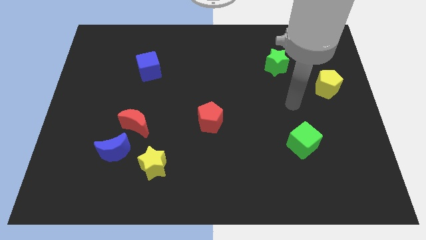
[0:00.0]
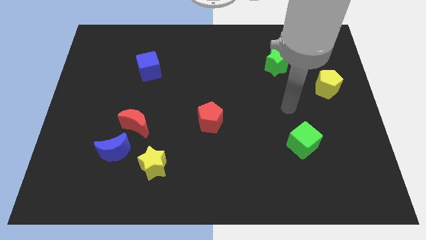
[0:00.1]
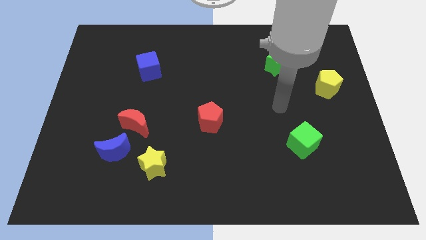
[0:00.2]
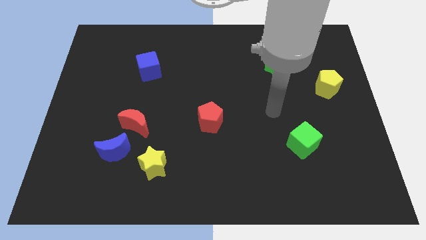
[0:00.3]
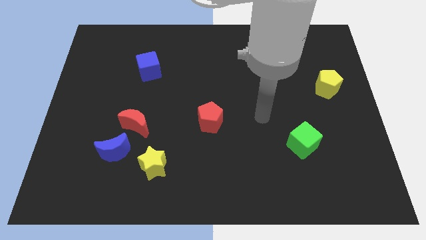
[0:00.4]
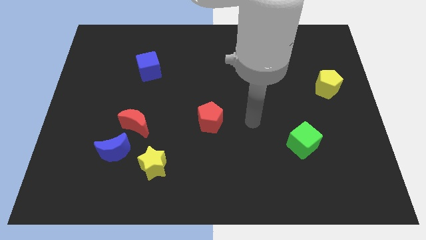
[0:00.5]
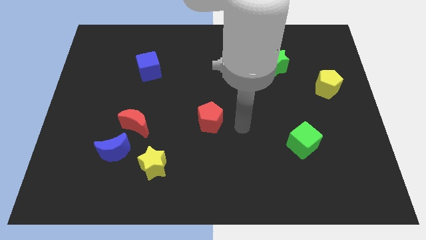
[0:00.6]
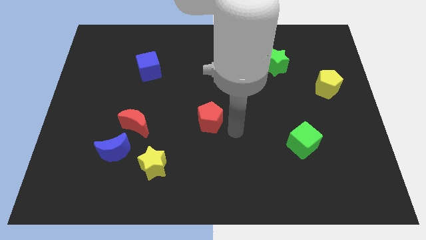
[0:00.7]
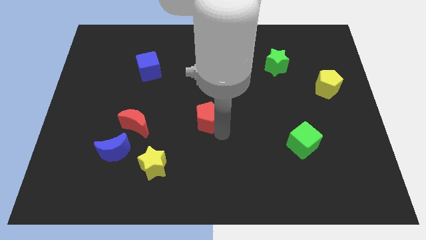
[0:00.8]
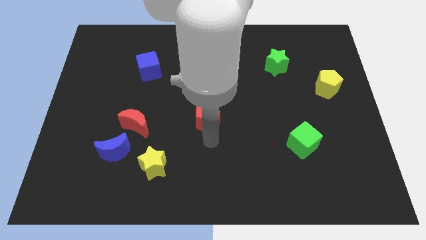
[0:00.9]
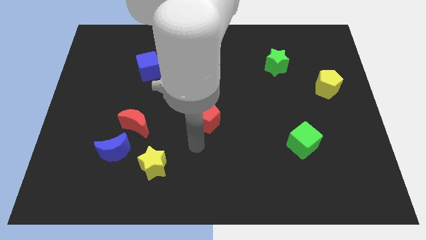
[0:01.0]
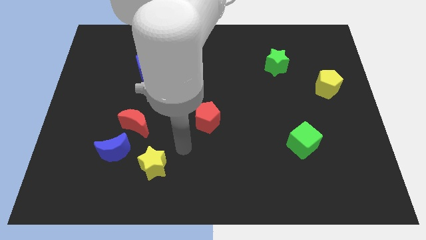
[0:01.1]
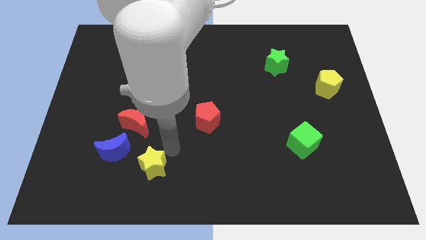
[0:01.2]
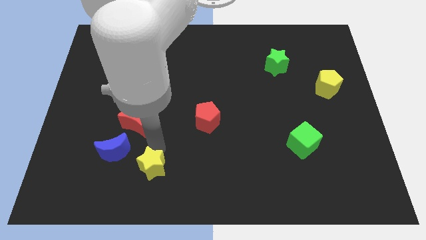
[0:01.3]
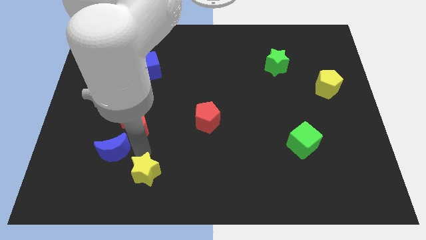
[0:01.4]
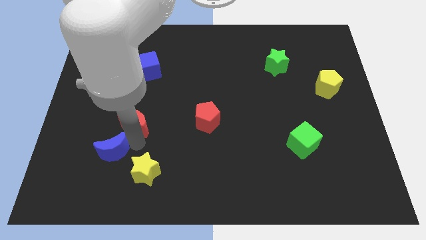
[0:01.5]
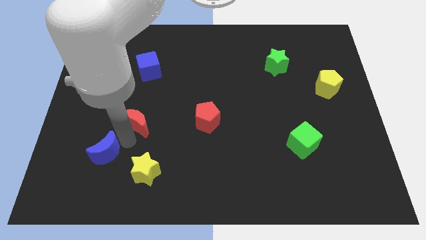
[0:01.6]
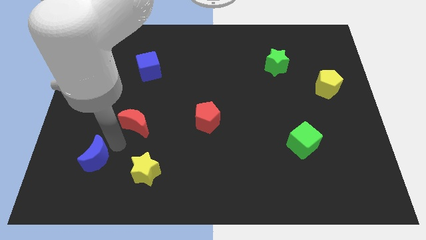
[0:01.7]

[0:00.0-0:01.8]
pull the red moon apart from the blue moon

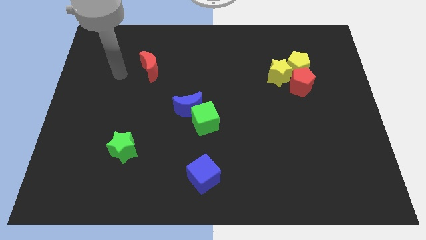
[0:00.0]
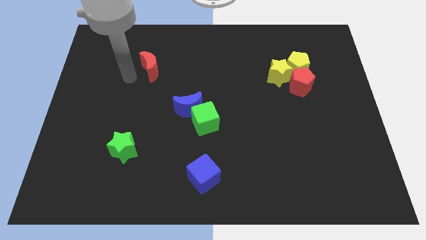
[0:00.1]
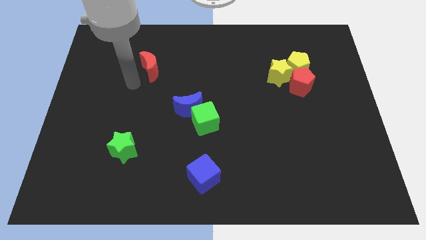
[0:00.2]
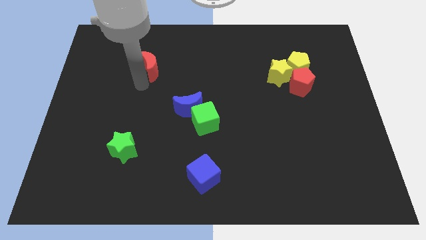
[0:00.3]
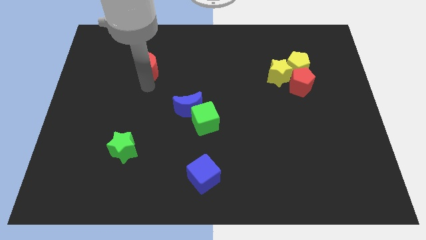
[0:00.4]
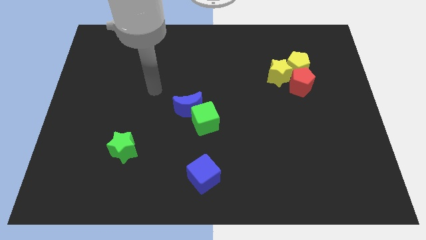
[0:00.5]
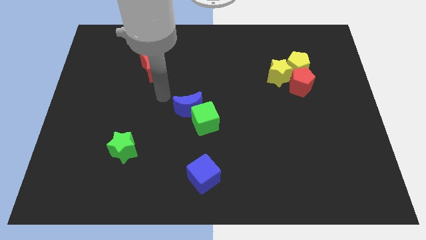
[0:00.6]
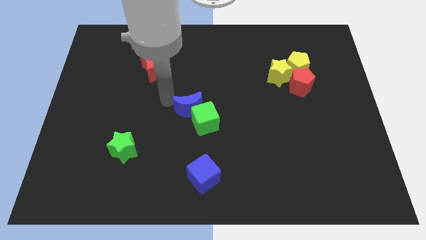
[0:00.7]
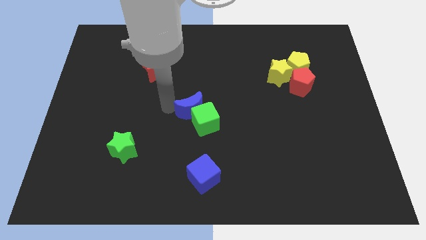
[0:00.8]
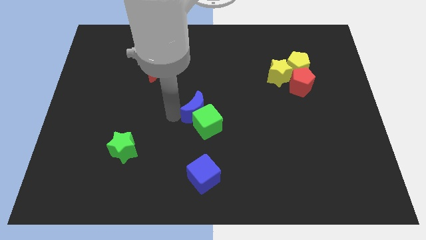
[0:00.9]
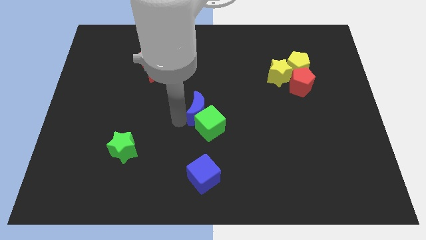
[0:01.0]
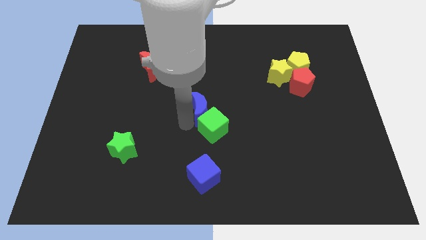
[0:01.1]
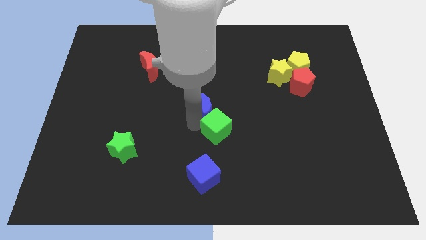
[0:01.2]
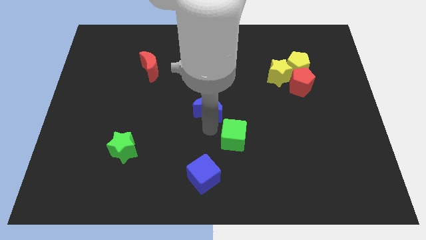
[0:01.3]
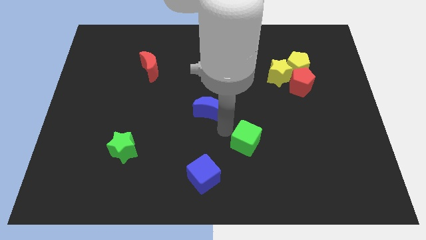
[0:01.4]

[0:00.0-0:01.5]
pull the blue moon apart from the green cube

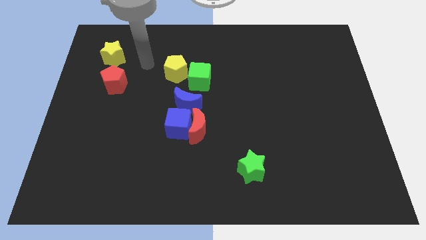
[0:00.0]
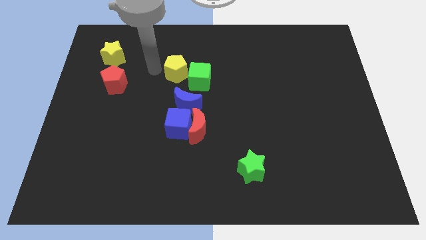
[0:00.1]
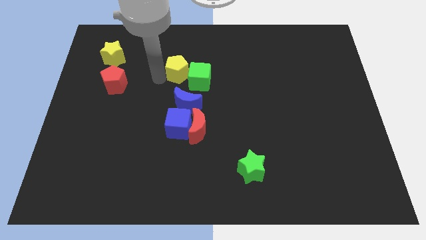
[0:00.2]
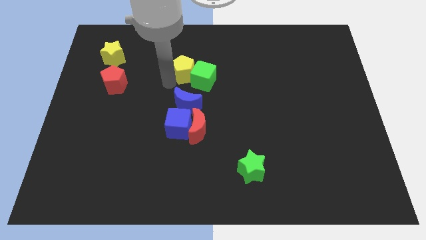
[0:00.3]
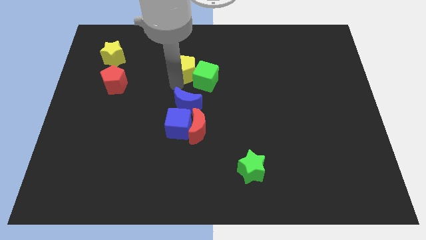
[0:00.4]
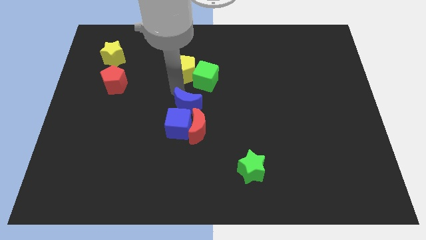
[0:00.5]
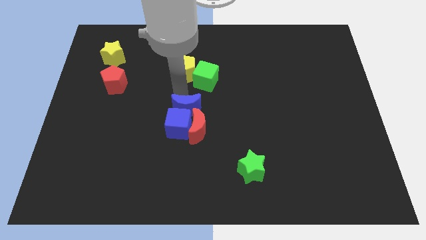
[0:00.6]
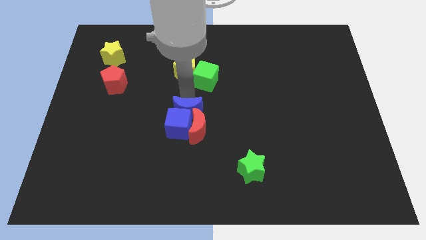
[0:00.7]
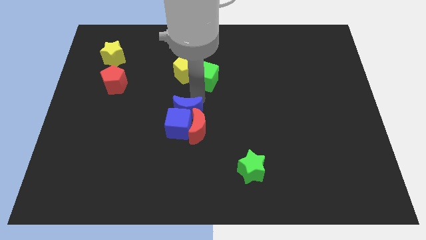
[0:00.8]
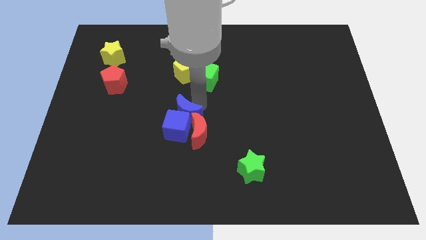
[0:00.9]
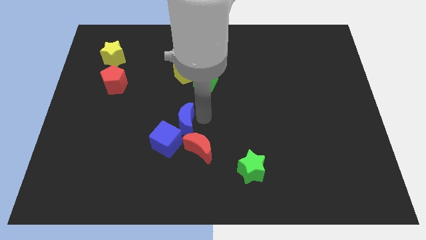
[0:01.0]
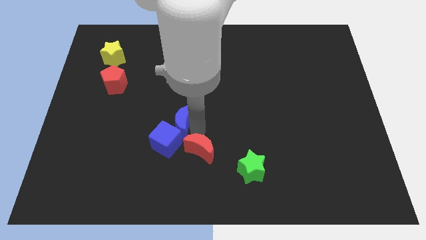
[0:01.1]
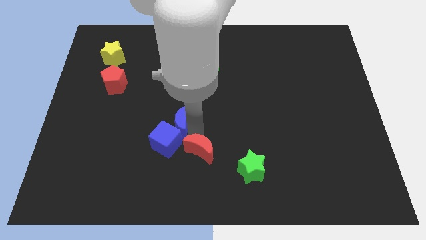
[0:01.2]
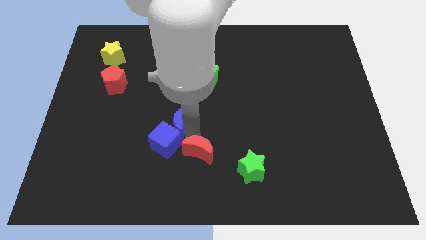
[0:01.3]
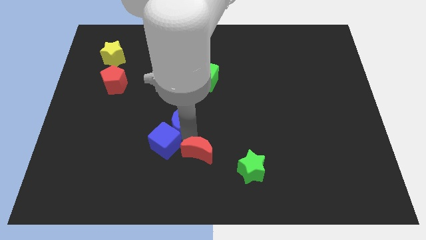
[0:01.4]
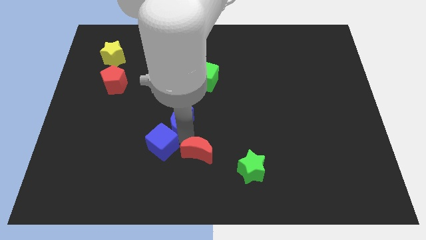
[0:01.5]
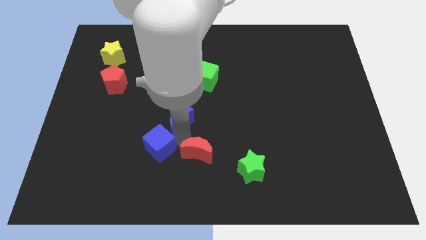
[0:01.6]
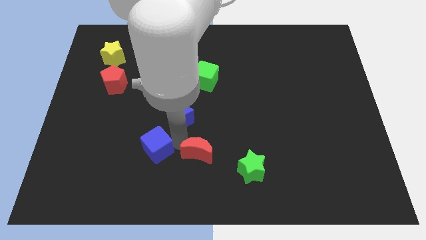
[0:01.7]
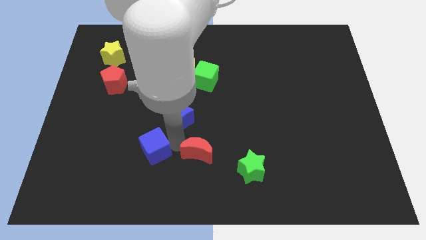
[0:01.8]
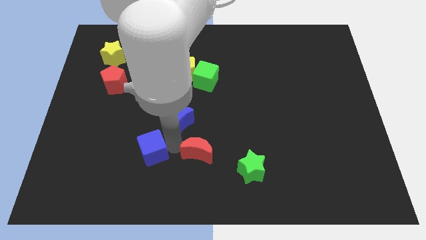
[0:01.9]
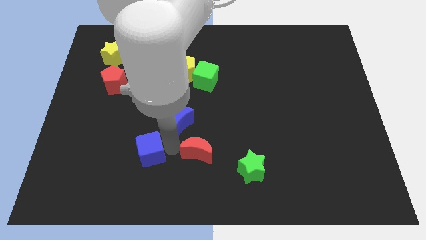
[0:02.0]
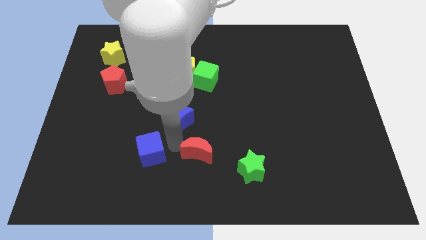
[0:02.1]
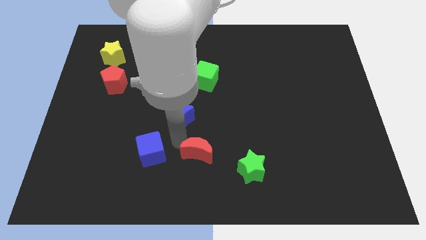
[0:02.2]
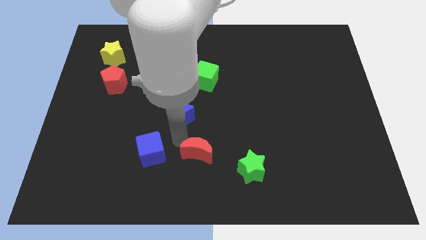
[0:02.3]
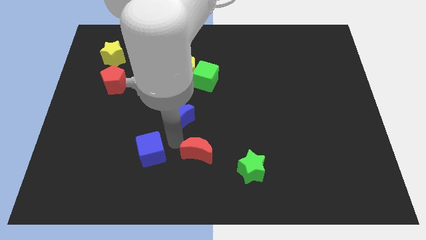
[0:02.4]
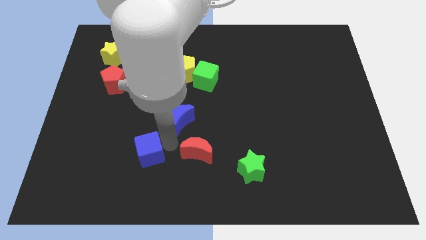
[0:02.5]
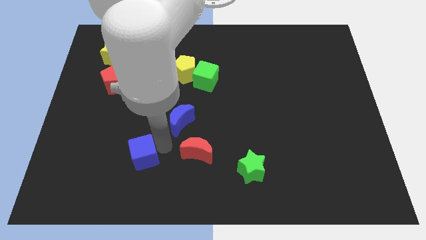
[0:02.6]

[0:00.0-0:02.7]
pull the blue cube apart from the red moon and blue moon

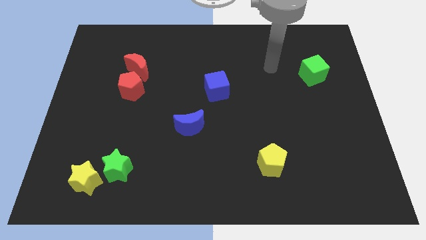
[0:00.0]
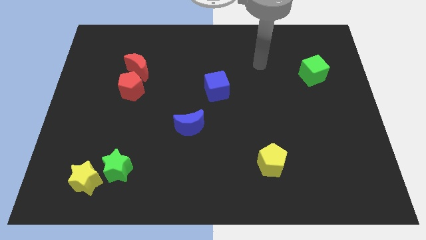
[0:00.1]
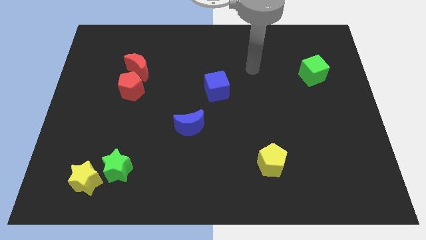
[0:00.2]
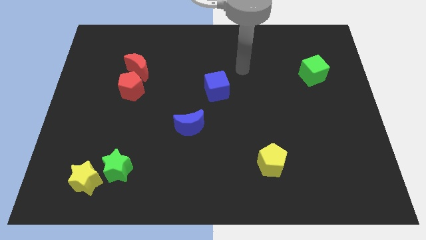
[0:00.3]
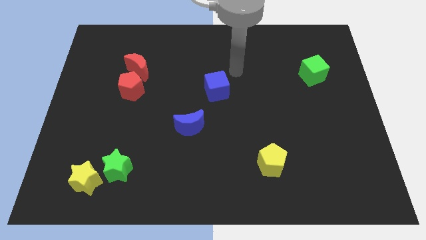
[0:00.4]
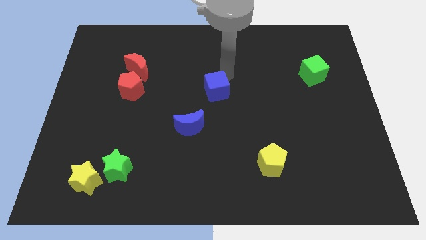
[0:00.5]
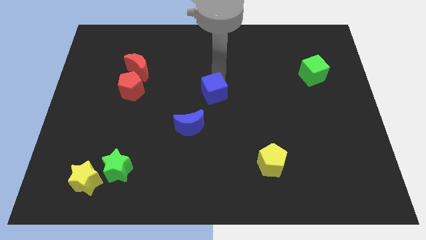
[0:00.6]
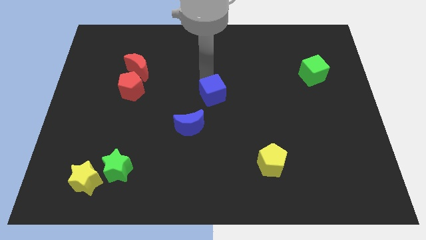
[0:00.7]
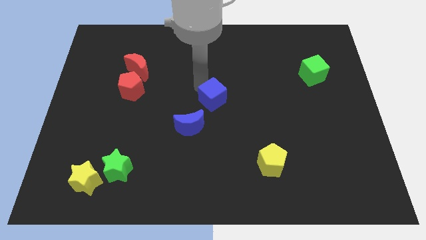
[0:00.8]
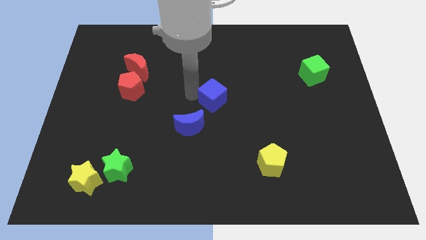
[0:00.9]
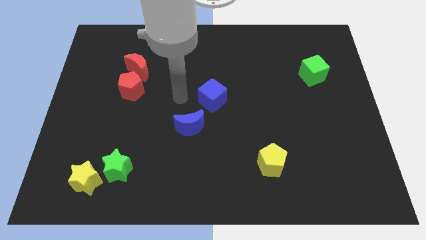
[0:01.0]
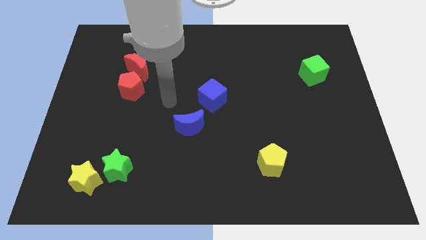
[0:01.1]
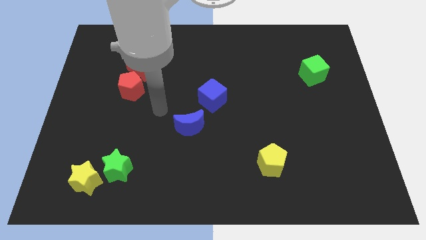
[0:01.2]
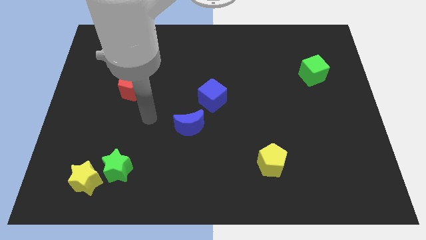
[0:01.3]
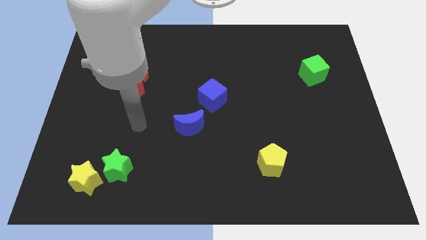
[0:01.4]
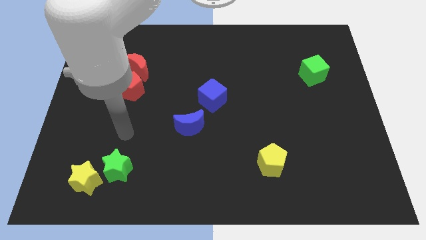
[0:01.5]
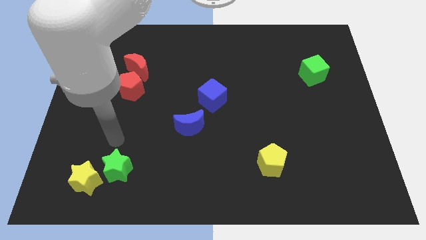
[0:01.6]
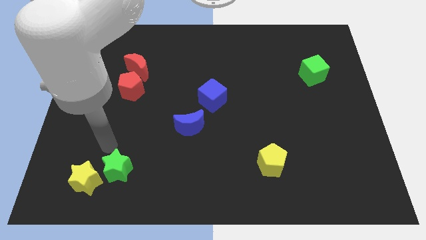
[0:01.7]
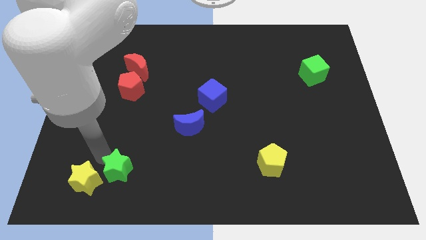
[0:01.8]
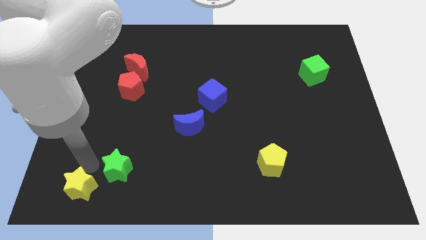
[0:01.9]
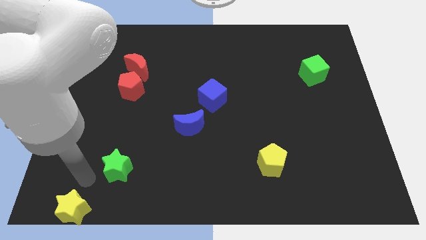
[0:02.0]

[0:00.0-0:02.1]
separate the green star from the yellow star

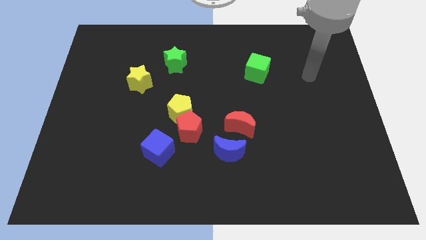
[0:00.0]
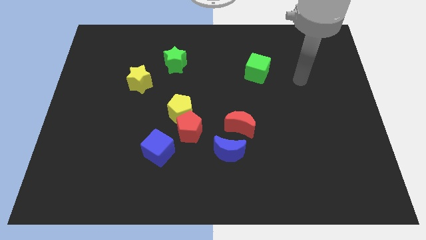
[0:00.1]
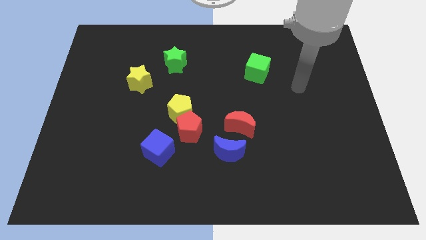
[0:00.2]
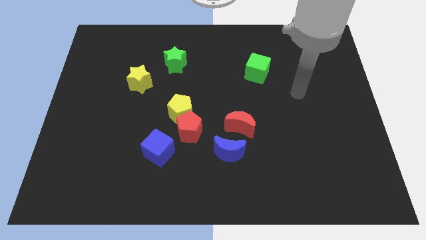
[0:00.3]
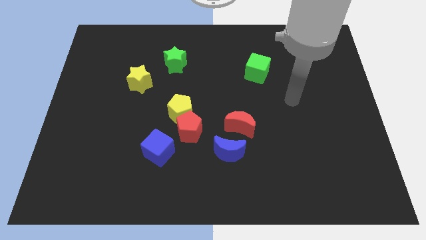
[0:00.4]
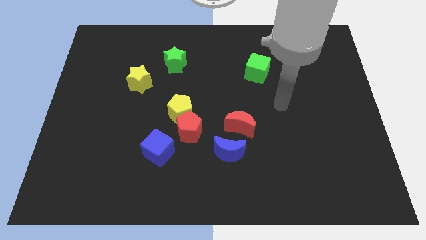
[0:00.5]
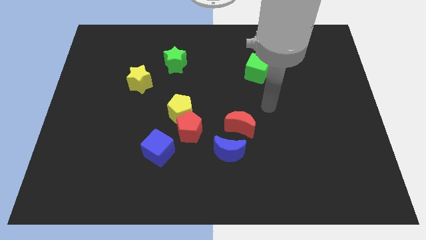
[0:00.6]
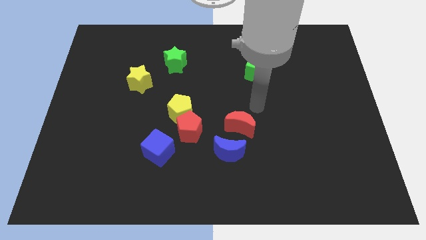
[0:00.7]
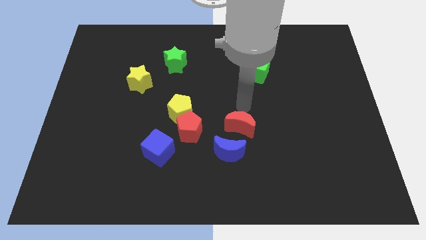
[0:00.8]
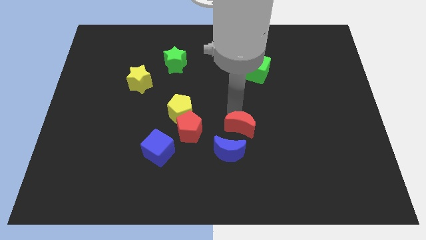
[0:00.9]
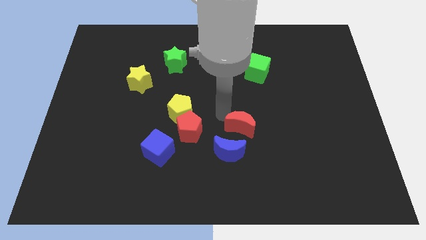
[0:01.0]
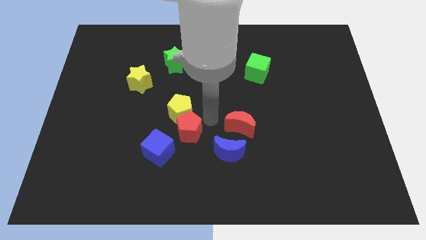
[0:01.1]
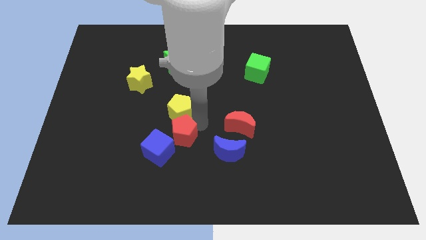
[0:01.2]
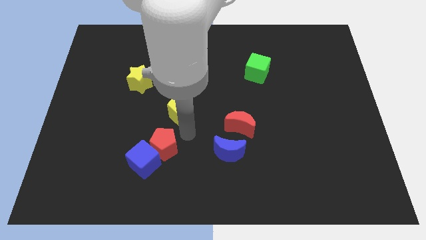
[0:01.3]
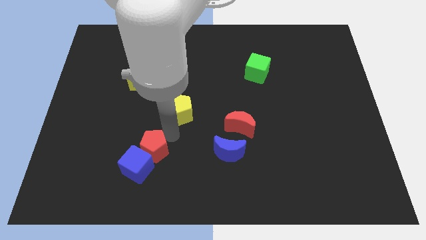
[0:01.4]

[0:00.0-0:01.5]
move the yellow pentagon away from the red pentagon
